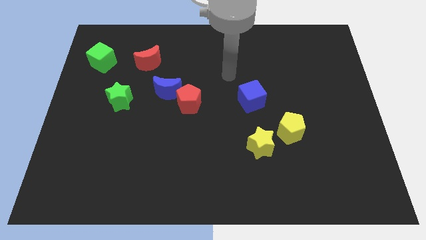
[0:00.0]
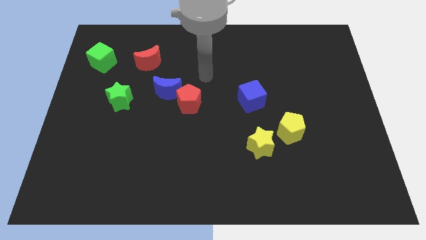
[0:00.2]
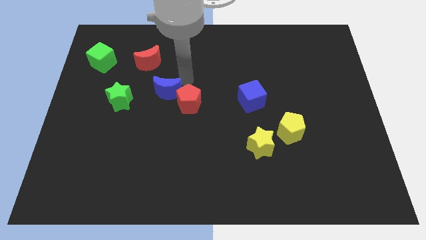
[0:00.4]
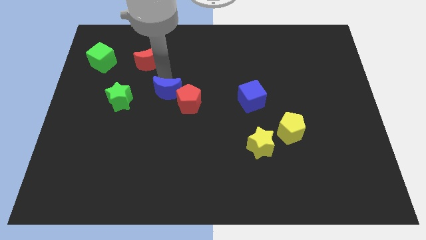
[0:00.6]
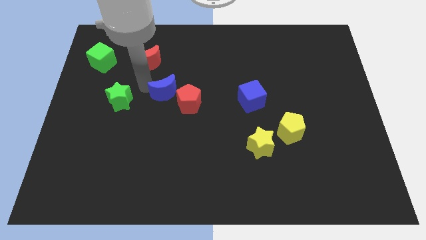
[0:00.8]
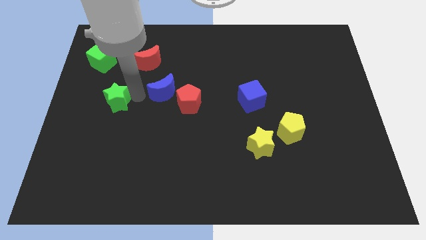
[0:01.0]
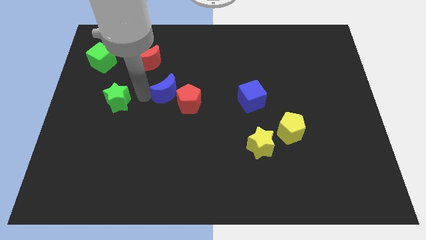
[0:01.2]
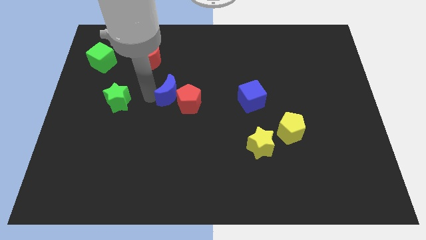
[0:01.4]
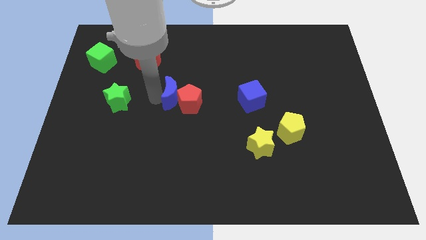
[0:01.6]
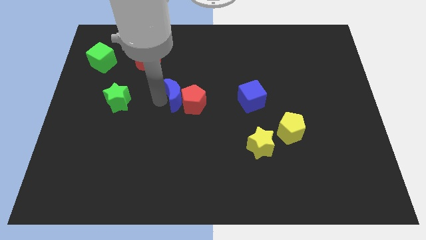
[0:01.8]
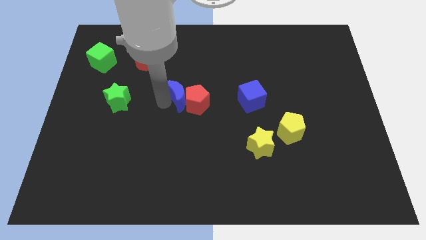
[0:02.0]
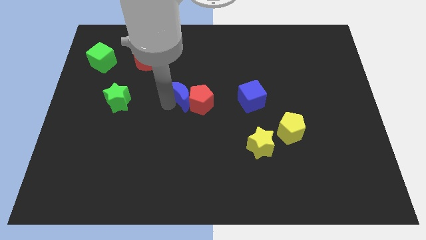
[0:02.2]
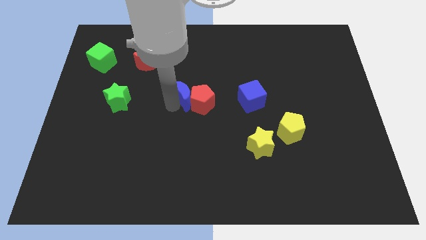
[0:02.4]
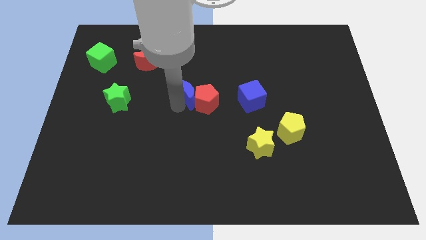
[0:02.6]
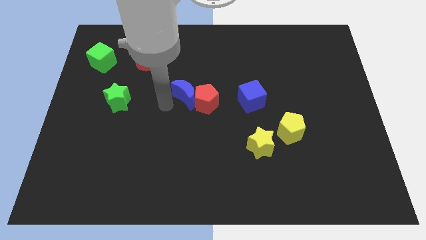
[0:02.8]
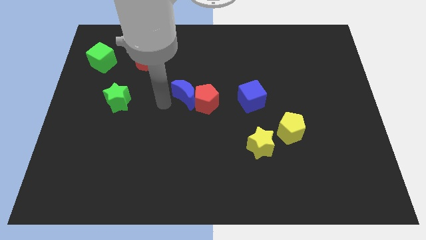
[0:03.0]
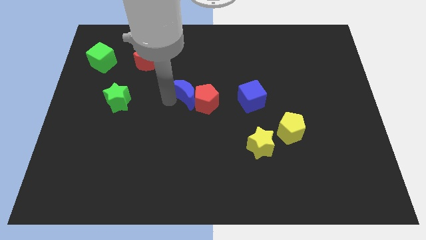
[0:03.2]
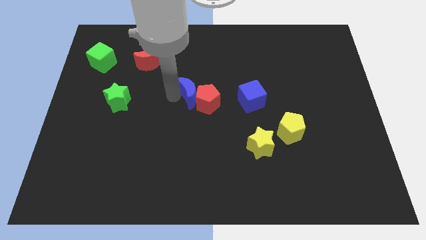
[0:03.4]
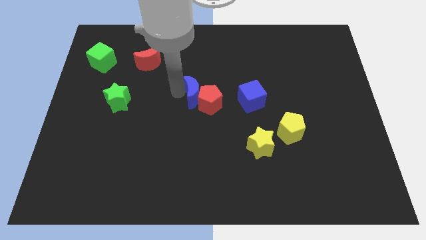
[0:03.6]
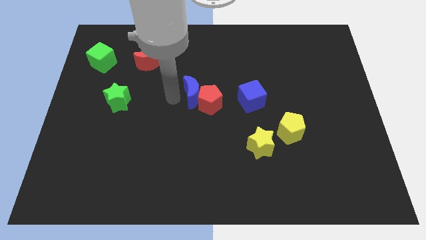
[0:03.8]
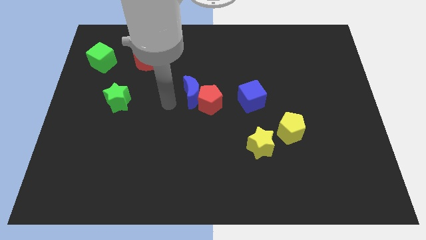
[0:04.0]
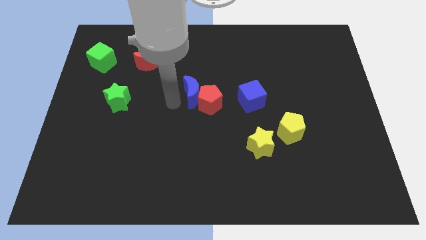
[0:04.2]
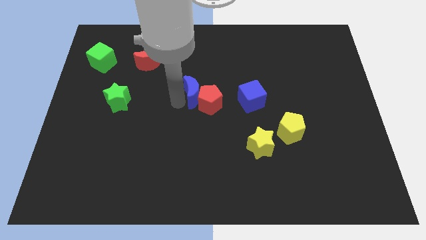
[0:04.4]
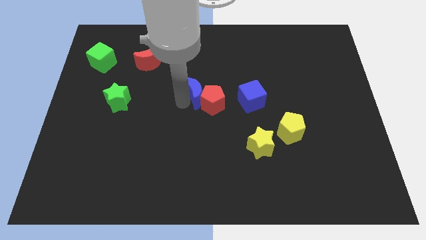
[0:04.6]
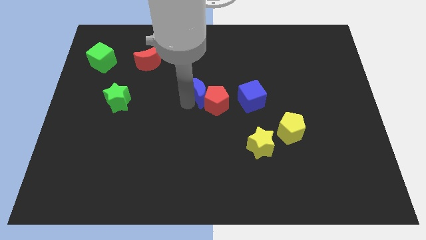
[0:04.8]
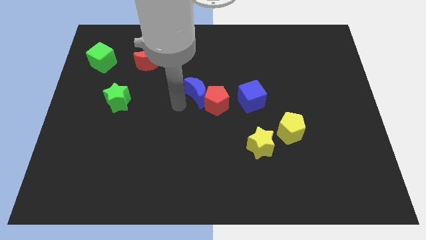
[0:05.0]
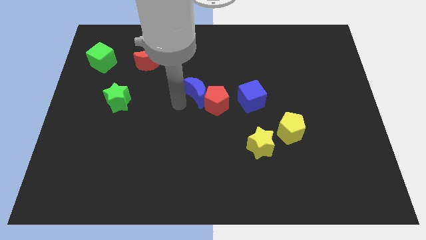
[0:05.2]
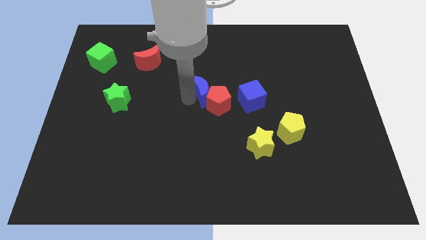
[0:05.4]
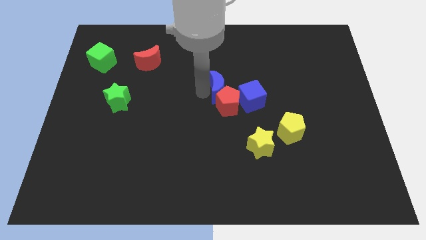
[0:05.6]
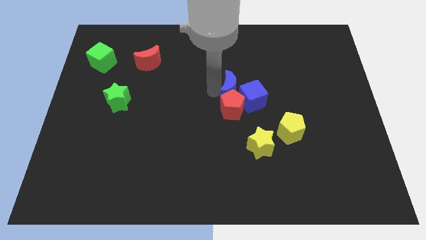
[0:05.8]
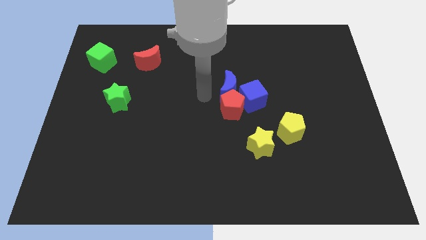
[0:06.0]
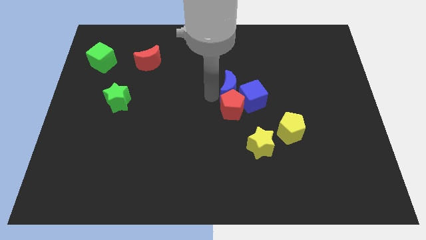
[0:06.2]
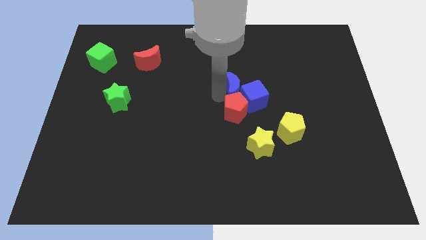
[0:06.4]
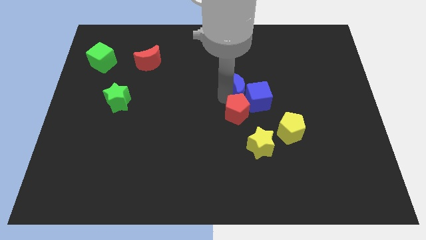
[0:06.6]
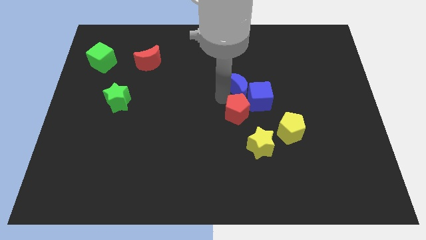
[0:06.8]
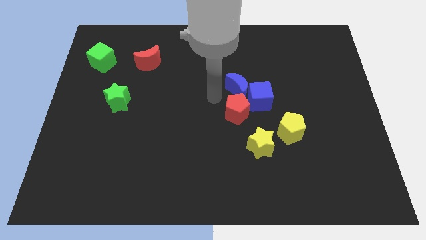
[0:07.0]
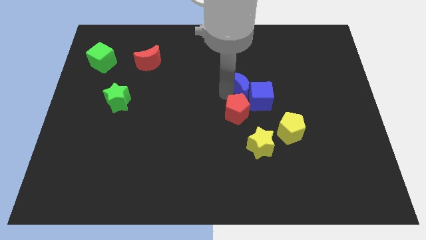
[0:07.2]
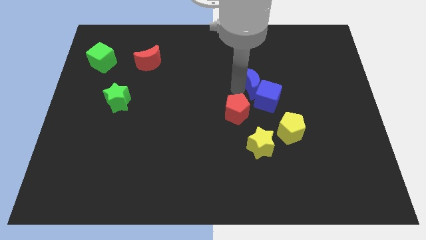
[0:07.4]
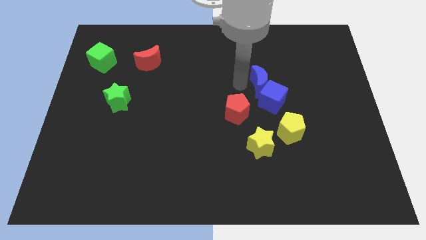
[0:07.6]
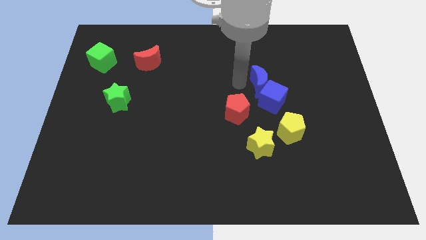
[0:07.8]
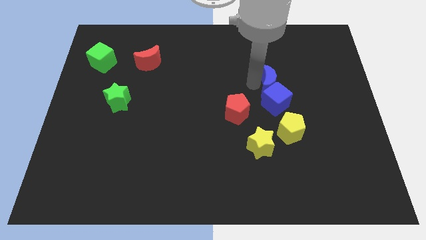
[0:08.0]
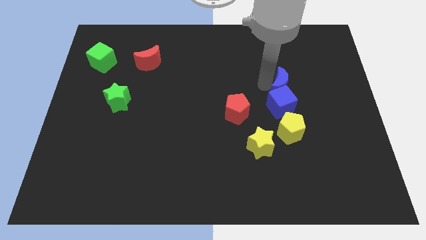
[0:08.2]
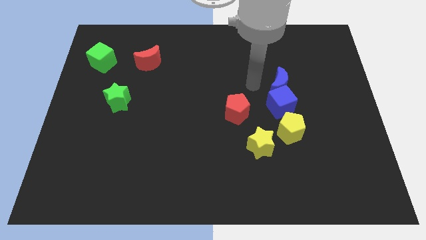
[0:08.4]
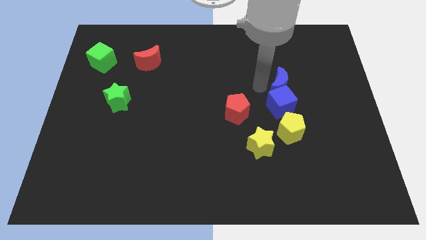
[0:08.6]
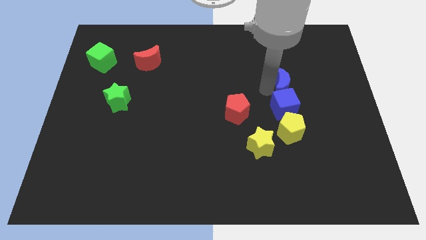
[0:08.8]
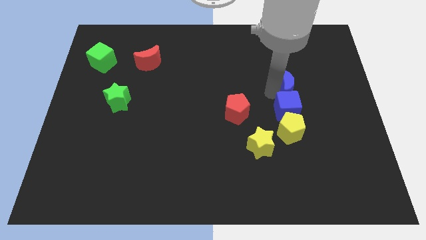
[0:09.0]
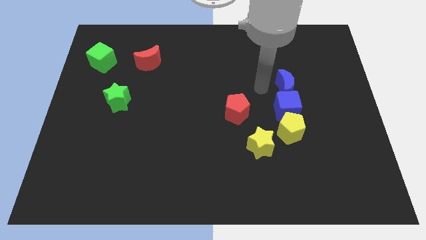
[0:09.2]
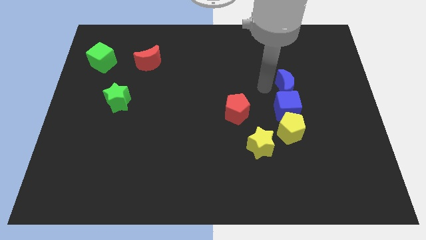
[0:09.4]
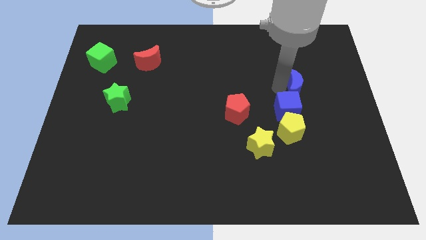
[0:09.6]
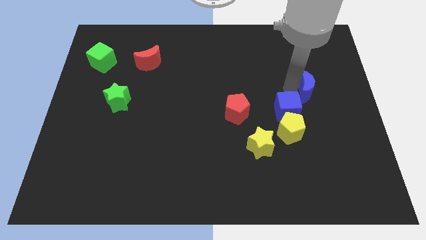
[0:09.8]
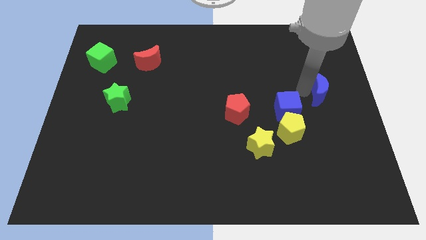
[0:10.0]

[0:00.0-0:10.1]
put the blue moon to the right side

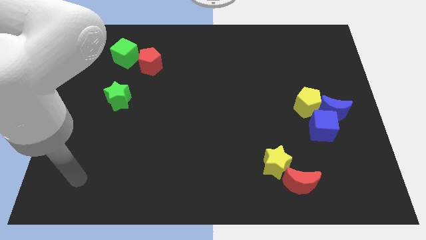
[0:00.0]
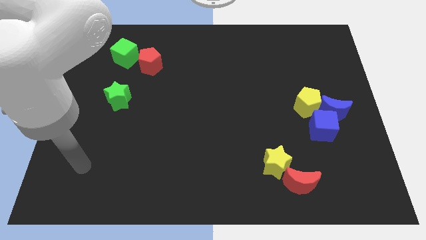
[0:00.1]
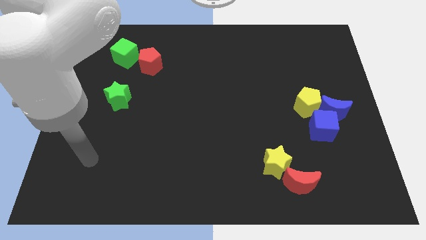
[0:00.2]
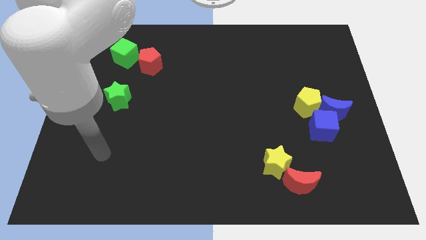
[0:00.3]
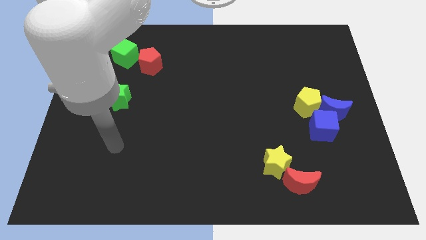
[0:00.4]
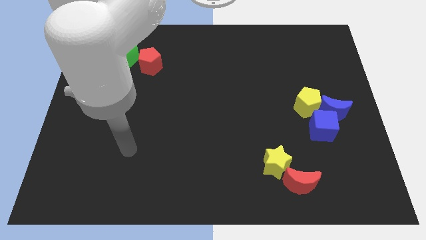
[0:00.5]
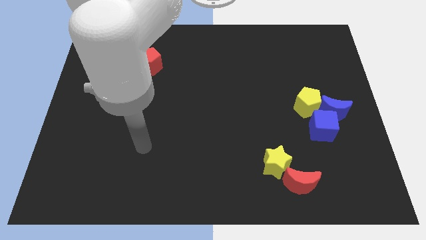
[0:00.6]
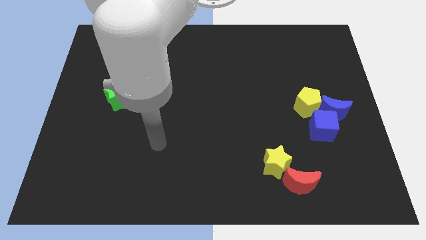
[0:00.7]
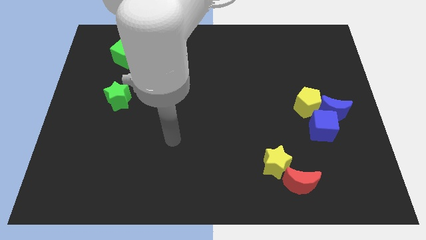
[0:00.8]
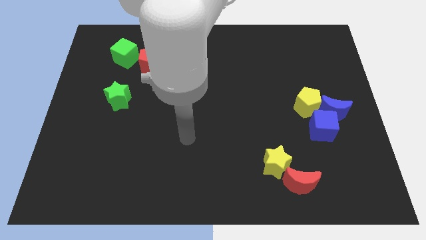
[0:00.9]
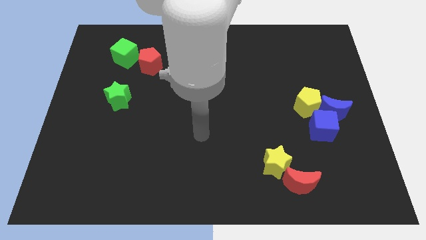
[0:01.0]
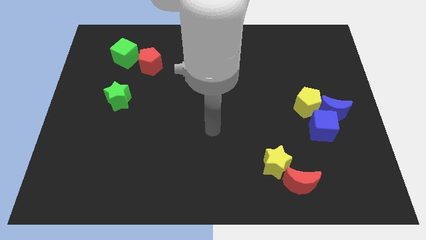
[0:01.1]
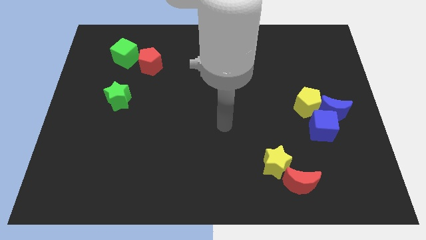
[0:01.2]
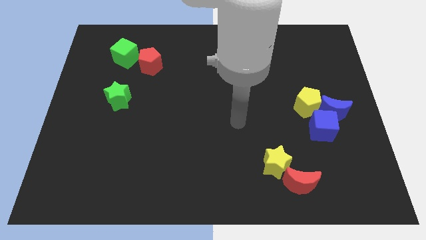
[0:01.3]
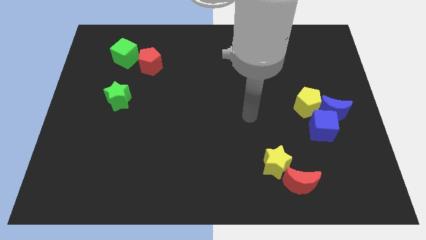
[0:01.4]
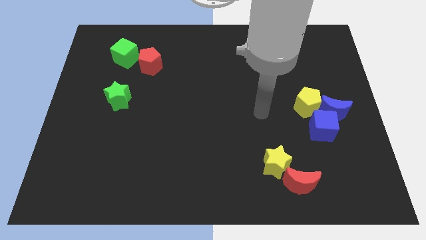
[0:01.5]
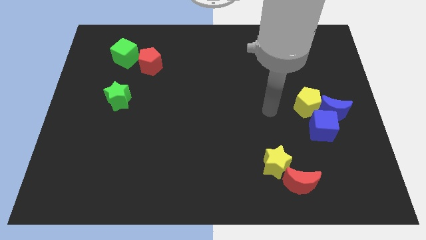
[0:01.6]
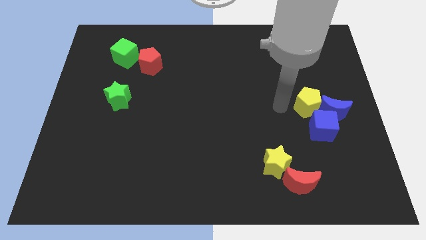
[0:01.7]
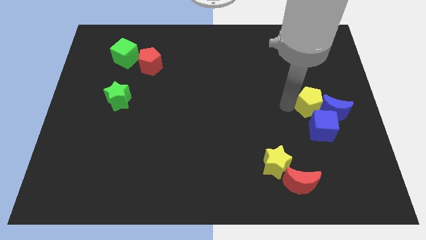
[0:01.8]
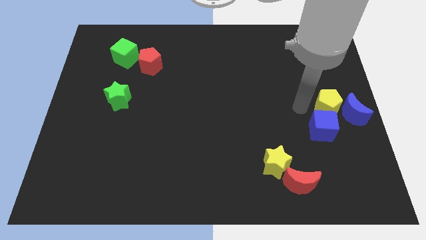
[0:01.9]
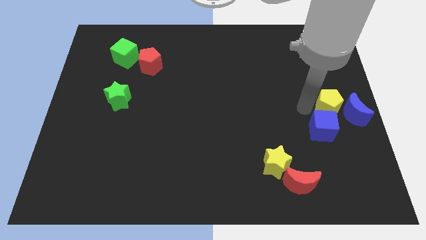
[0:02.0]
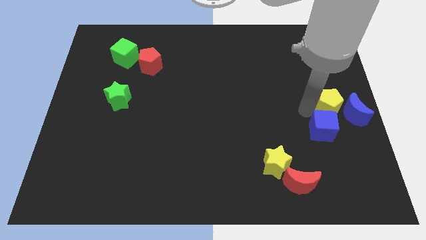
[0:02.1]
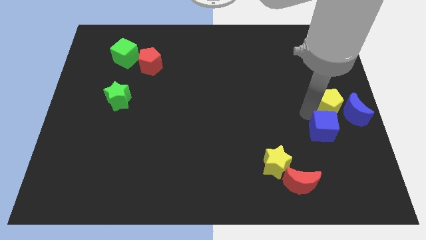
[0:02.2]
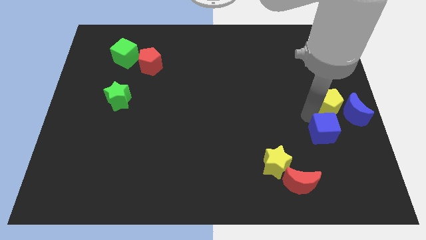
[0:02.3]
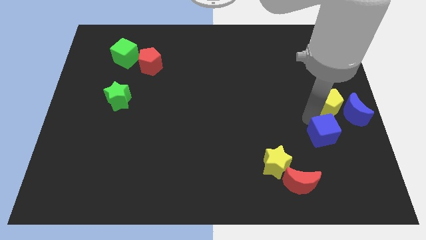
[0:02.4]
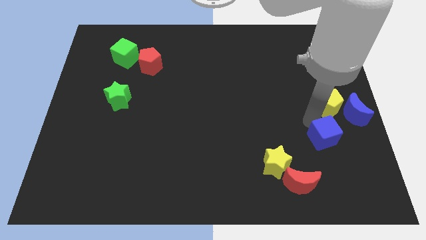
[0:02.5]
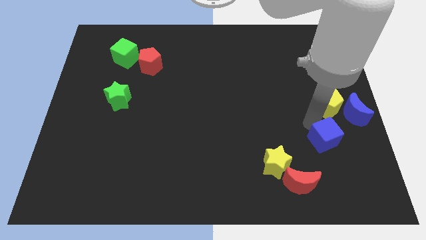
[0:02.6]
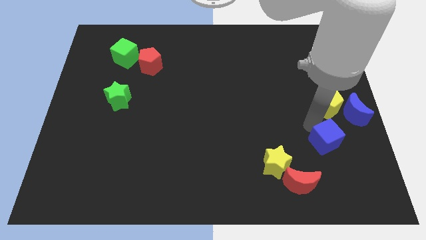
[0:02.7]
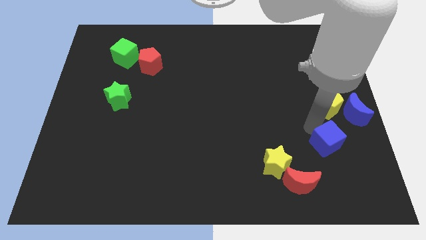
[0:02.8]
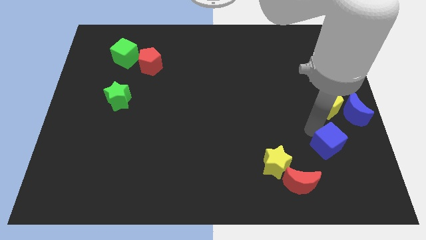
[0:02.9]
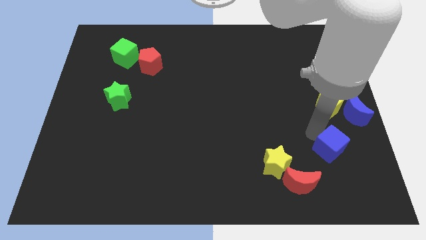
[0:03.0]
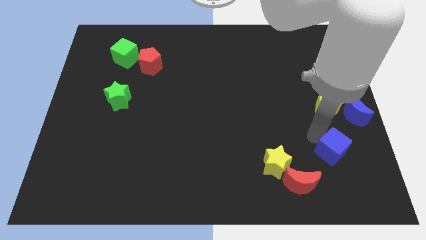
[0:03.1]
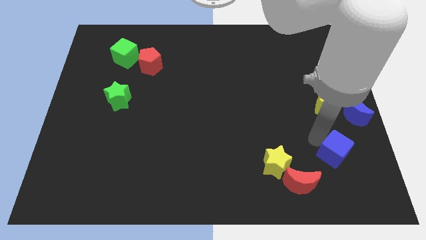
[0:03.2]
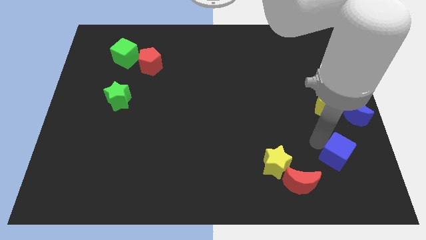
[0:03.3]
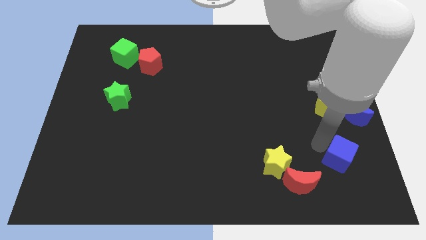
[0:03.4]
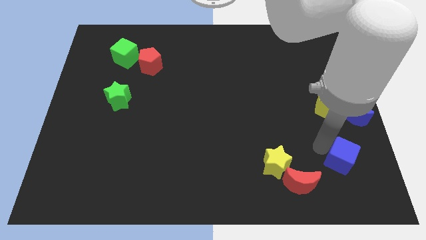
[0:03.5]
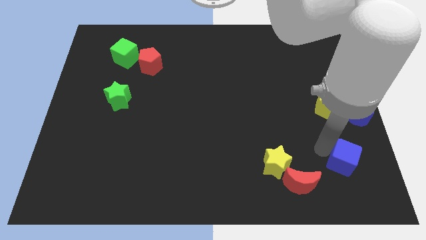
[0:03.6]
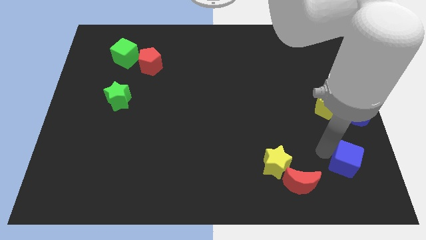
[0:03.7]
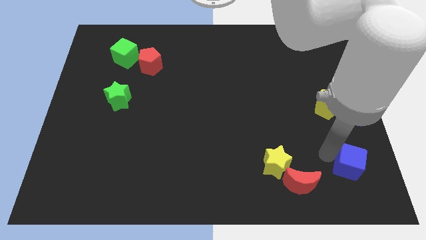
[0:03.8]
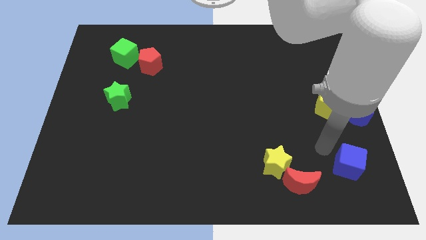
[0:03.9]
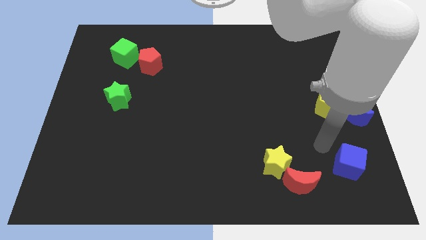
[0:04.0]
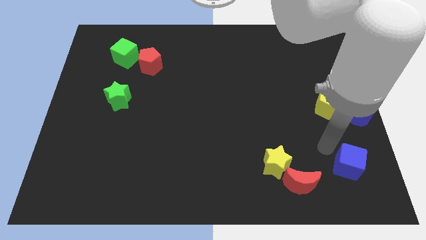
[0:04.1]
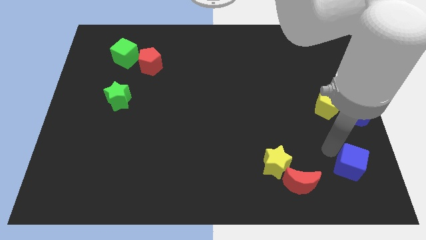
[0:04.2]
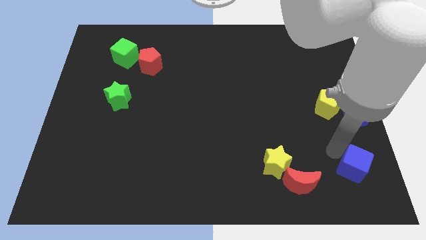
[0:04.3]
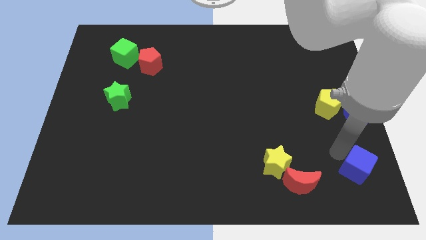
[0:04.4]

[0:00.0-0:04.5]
put the blue cube to the bottom right
